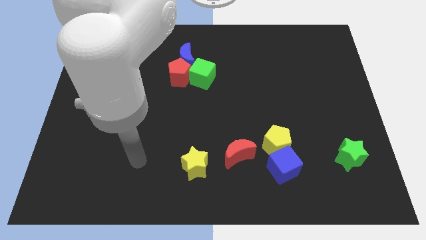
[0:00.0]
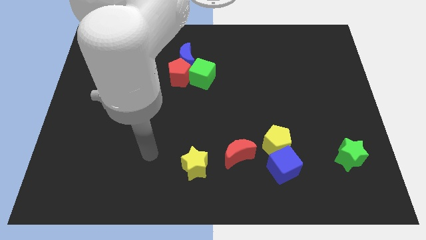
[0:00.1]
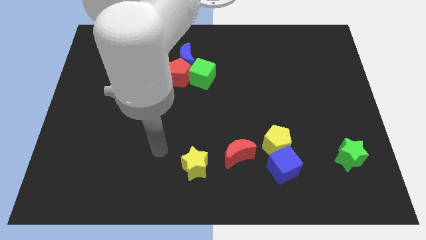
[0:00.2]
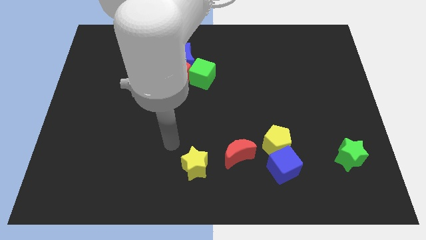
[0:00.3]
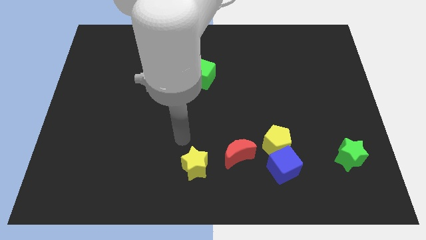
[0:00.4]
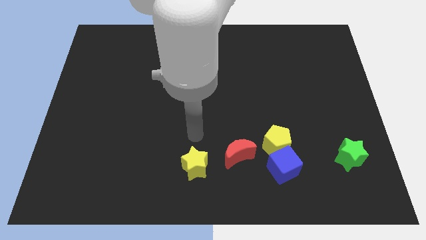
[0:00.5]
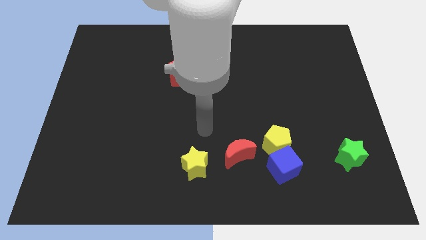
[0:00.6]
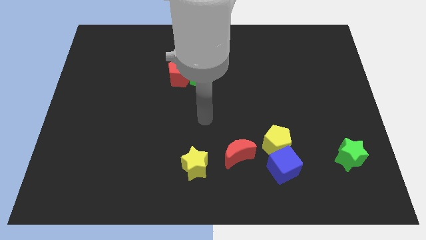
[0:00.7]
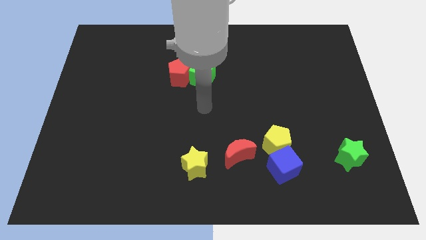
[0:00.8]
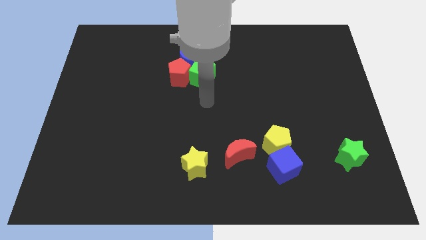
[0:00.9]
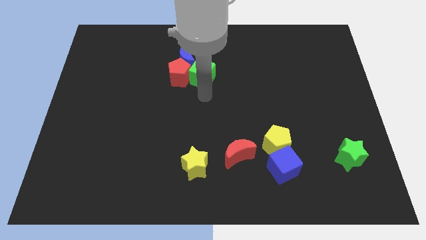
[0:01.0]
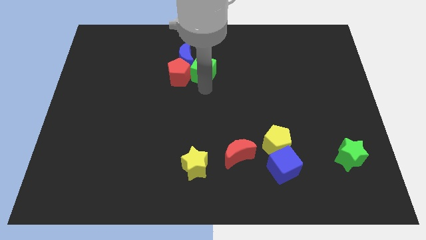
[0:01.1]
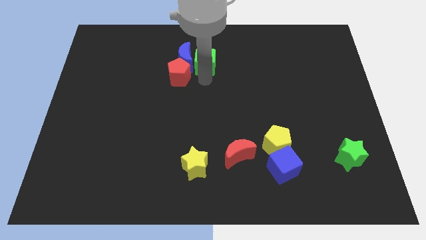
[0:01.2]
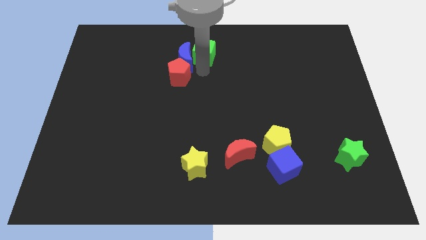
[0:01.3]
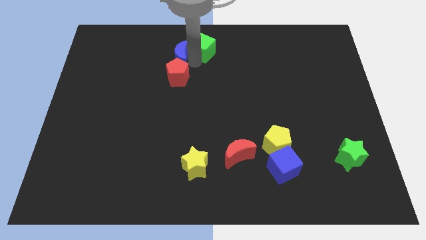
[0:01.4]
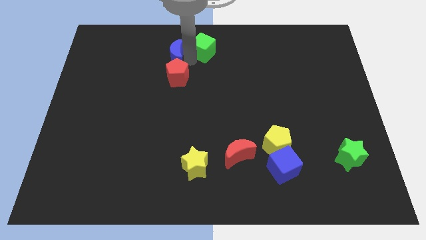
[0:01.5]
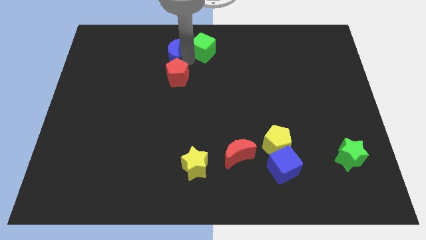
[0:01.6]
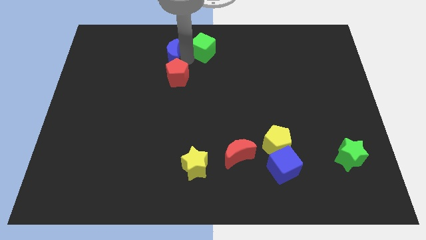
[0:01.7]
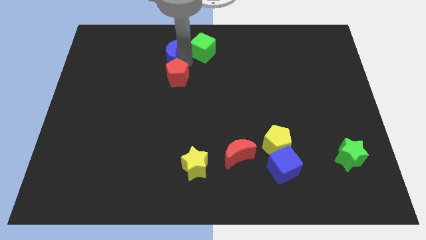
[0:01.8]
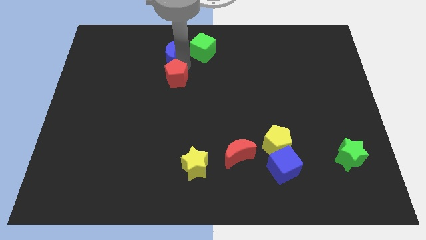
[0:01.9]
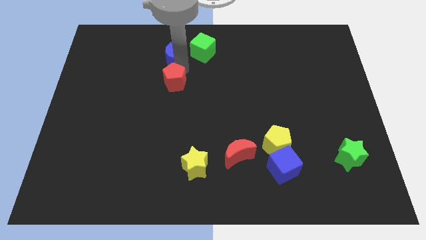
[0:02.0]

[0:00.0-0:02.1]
pull the red pentagon apart from the blue moon and green cube

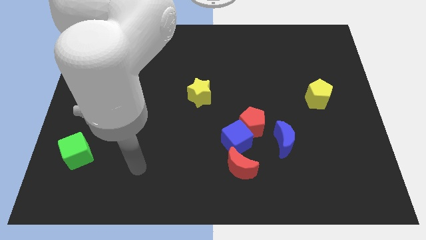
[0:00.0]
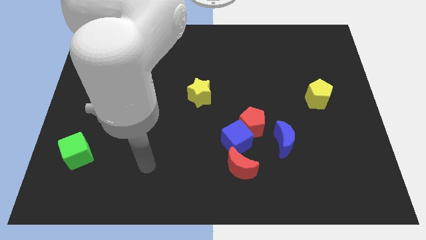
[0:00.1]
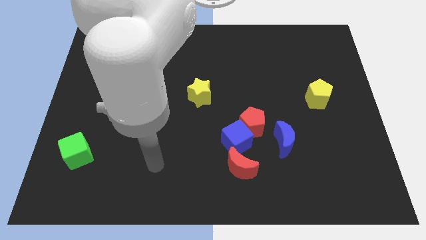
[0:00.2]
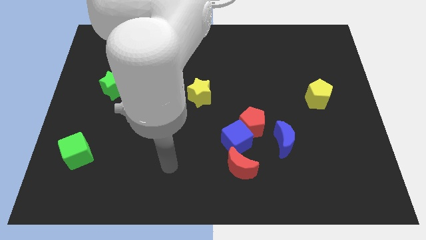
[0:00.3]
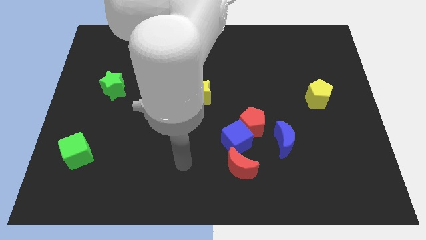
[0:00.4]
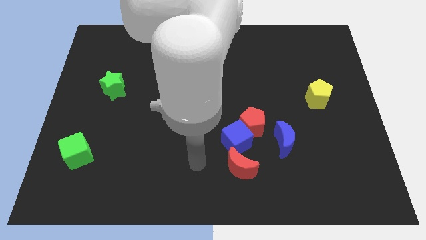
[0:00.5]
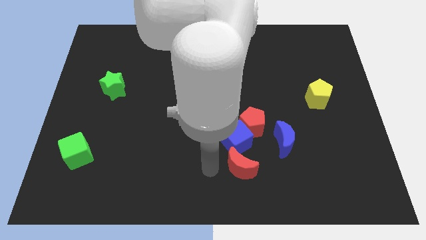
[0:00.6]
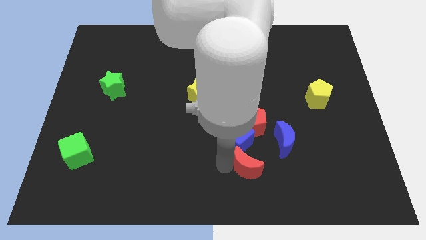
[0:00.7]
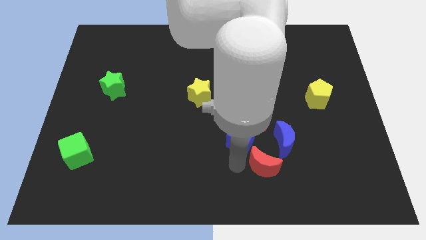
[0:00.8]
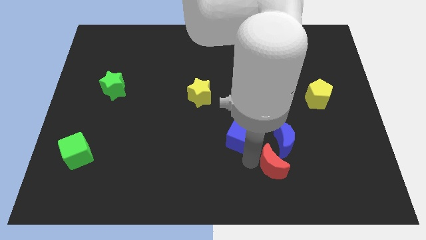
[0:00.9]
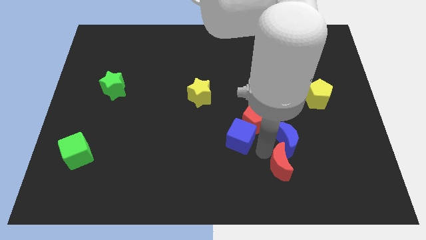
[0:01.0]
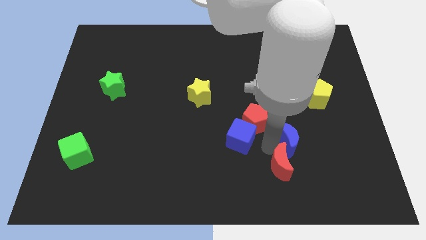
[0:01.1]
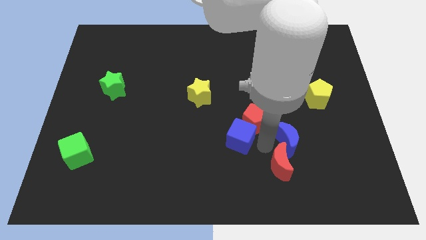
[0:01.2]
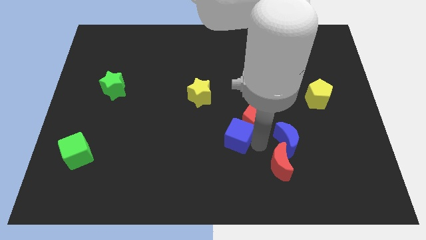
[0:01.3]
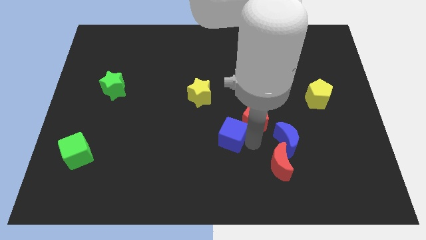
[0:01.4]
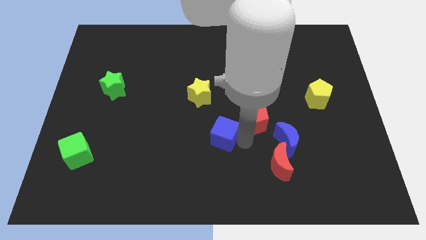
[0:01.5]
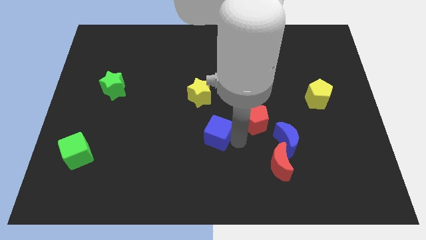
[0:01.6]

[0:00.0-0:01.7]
pull the blue cube apart from the red pentagon and red moon

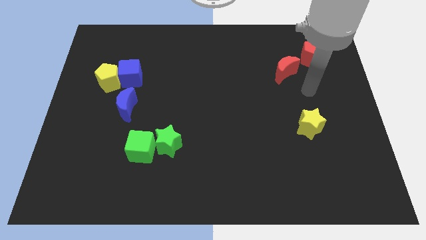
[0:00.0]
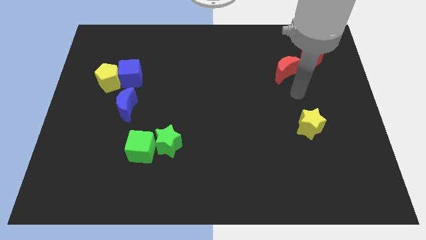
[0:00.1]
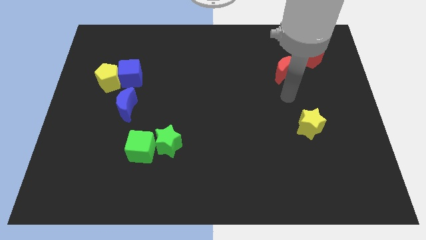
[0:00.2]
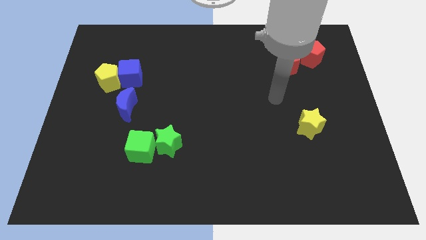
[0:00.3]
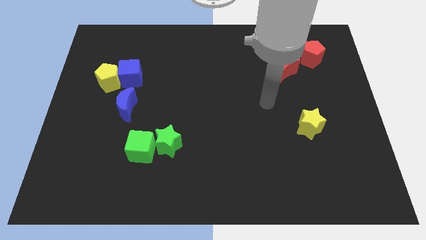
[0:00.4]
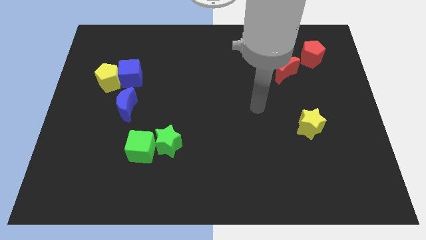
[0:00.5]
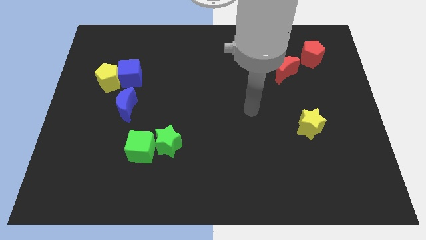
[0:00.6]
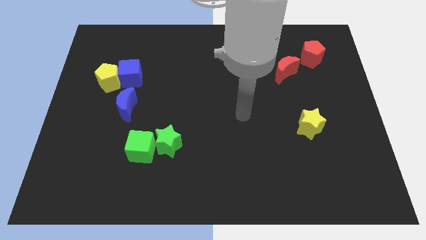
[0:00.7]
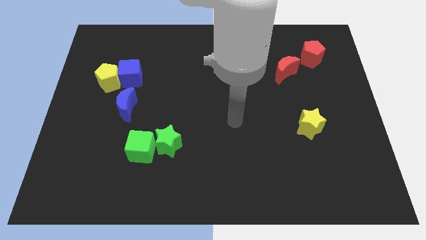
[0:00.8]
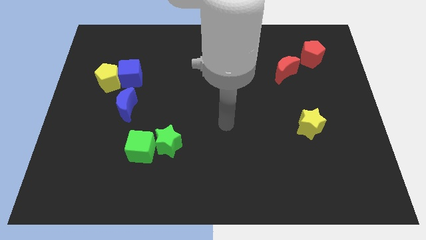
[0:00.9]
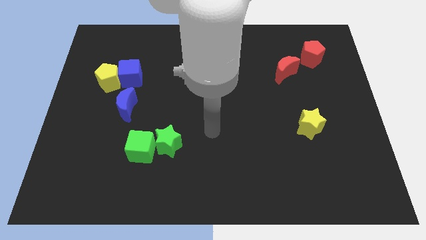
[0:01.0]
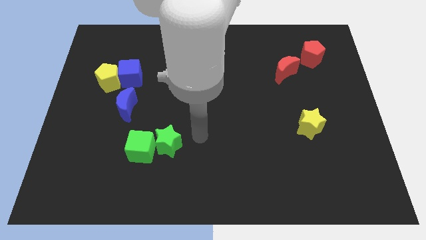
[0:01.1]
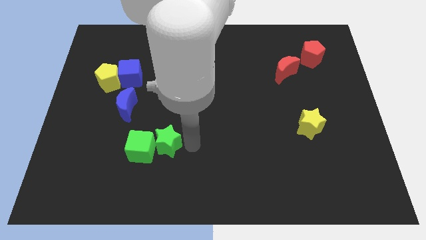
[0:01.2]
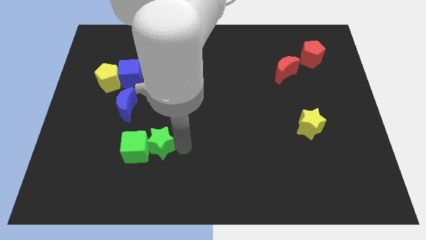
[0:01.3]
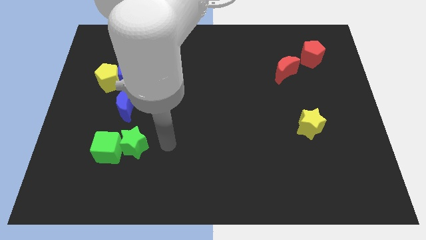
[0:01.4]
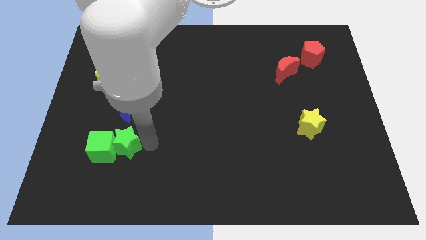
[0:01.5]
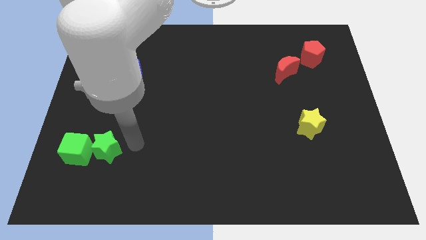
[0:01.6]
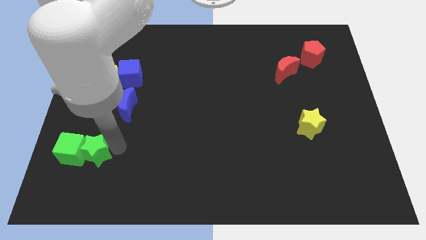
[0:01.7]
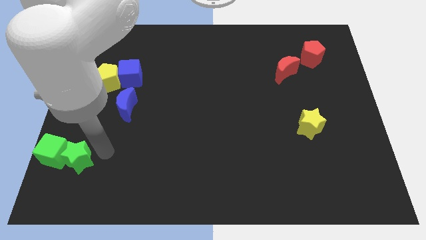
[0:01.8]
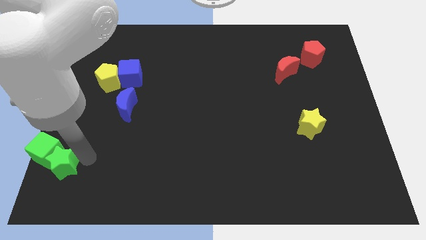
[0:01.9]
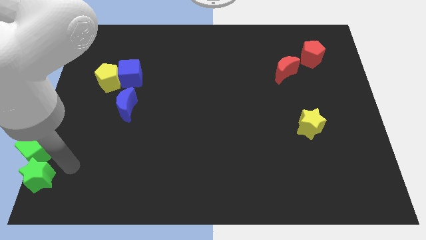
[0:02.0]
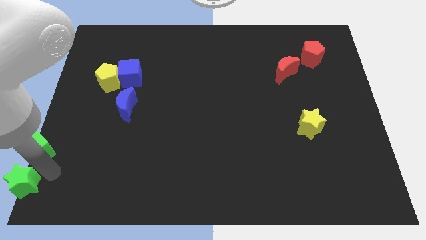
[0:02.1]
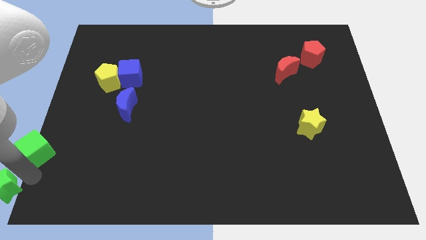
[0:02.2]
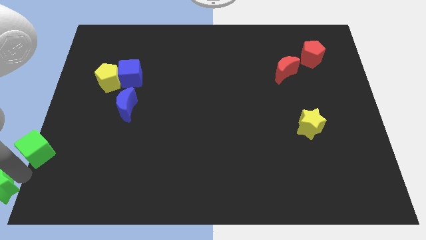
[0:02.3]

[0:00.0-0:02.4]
separate the green cube from the green star

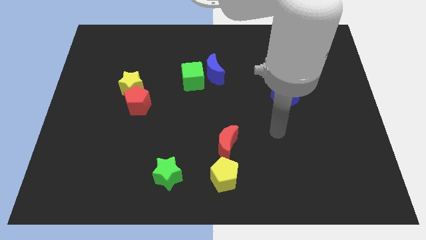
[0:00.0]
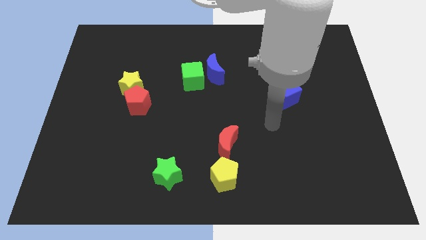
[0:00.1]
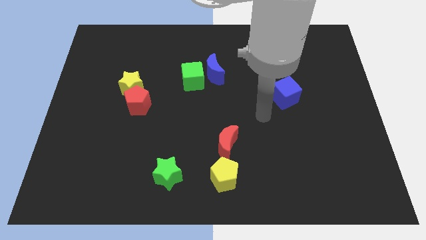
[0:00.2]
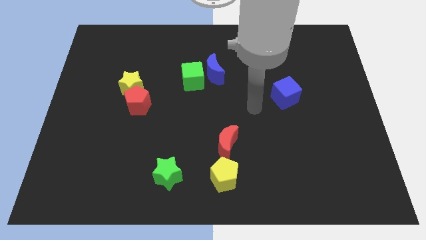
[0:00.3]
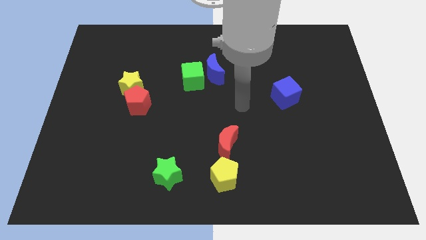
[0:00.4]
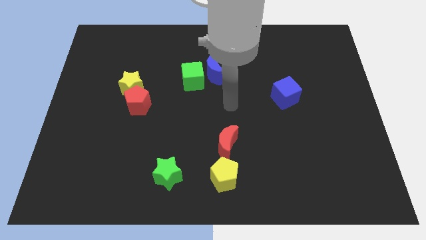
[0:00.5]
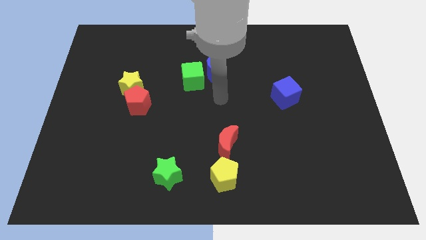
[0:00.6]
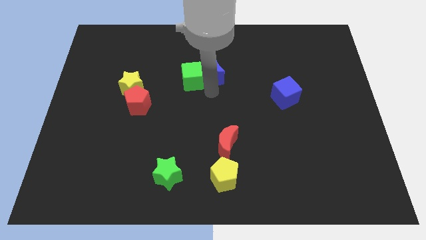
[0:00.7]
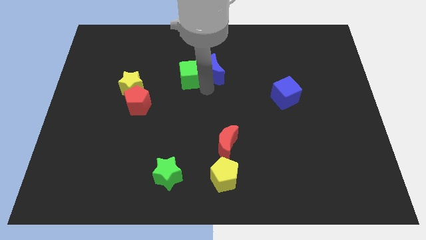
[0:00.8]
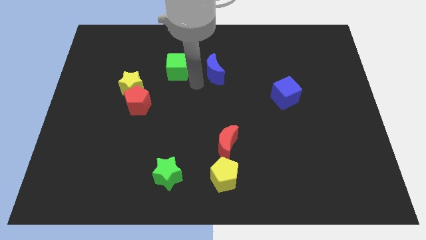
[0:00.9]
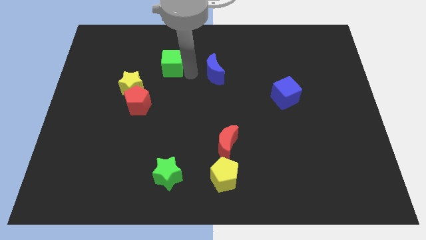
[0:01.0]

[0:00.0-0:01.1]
separate the blue moon from the green cube

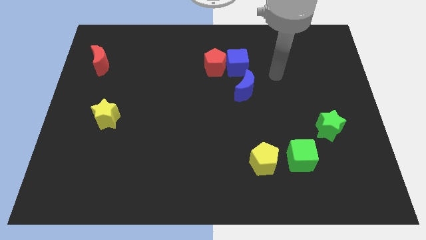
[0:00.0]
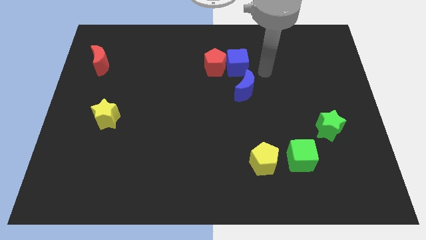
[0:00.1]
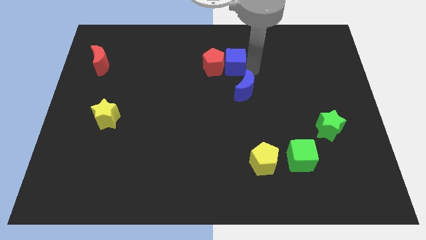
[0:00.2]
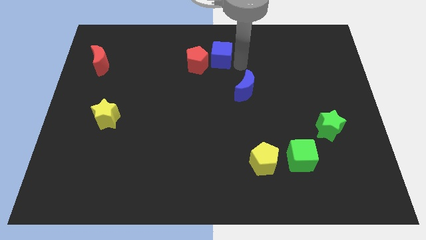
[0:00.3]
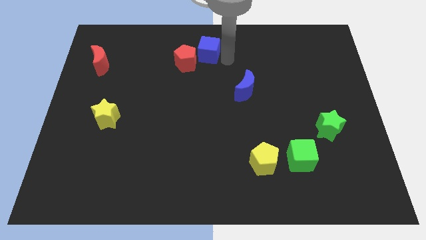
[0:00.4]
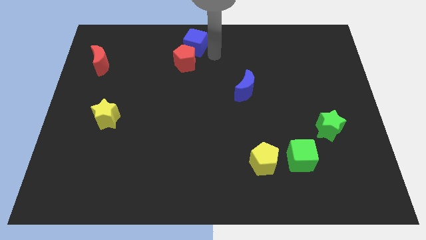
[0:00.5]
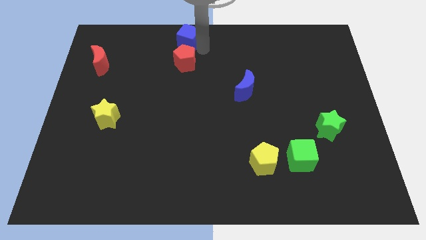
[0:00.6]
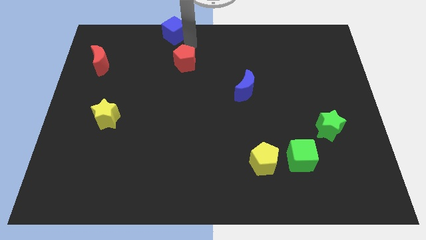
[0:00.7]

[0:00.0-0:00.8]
pull the red pentagon apart from the blue cube

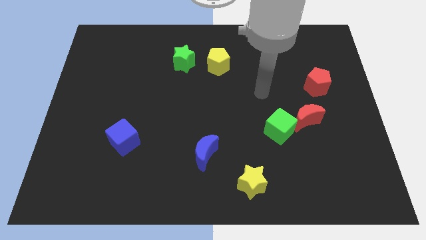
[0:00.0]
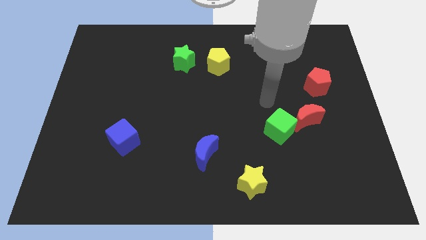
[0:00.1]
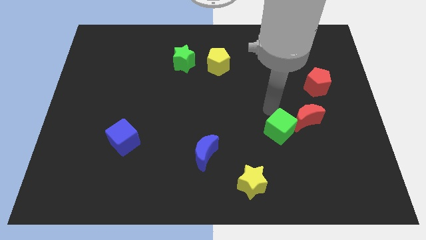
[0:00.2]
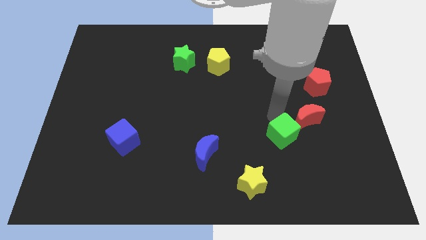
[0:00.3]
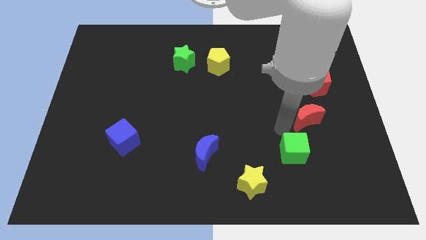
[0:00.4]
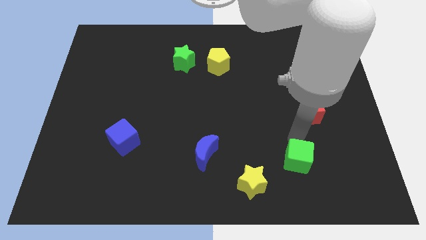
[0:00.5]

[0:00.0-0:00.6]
pull the red moon apart from the green cube

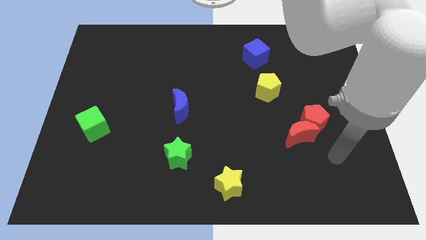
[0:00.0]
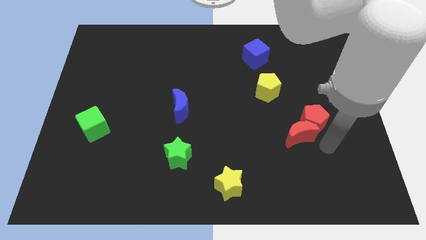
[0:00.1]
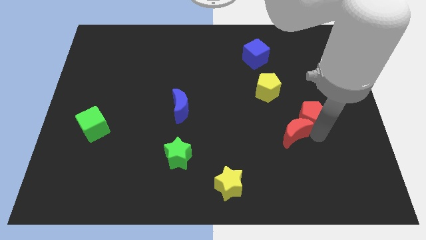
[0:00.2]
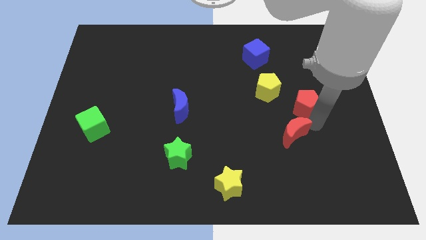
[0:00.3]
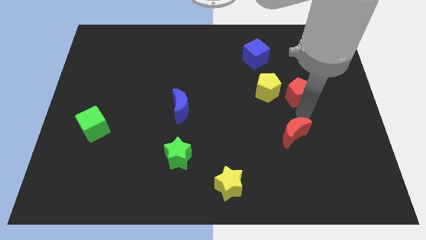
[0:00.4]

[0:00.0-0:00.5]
move the red moon away from the red pentagon

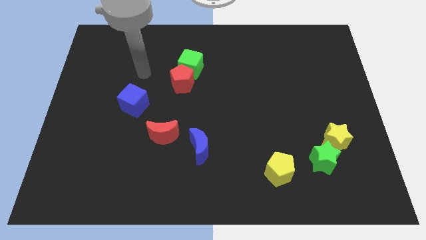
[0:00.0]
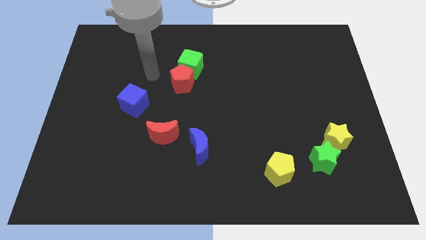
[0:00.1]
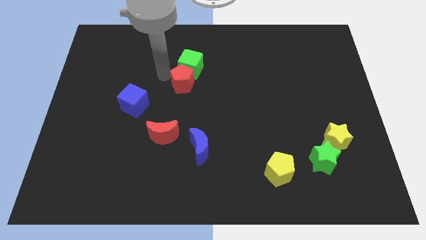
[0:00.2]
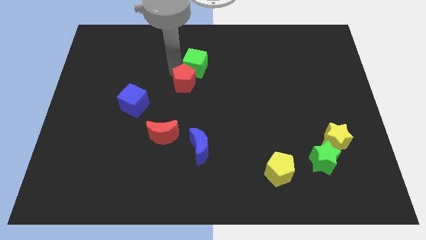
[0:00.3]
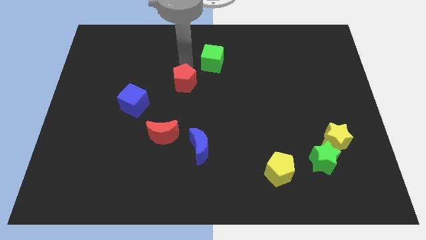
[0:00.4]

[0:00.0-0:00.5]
move the red pentagon away from the green cube
